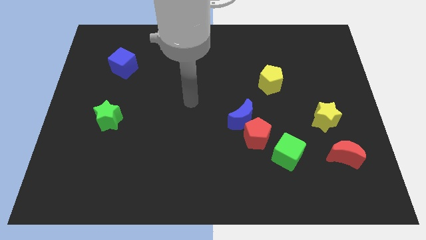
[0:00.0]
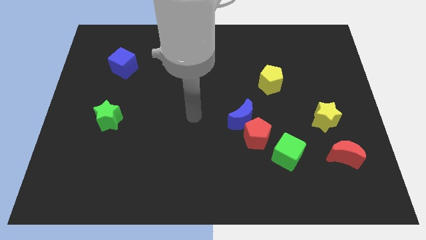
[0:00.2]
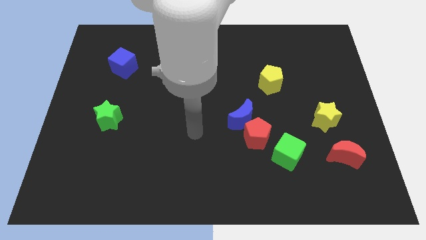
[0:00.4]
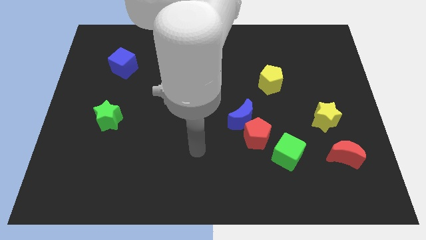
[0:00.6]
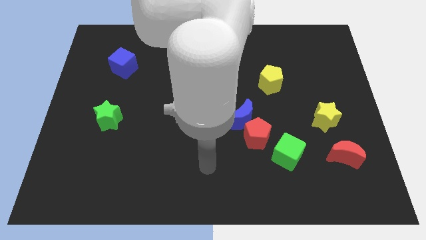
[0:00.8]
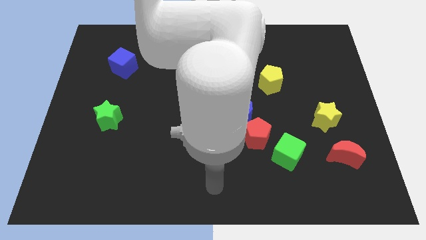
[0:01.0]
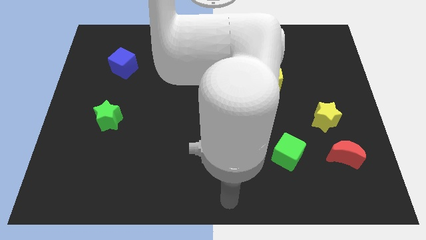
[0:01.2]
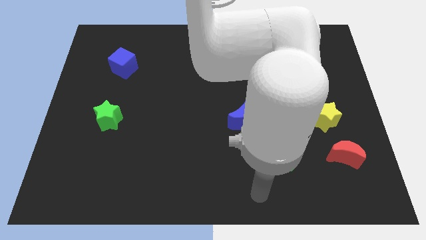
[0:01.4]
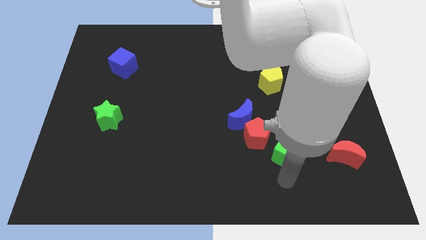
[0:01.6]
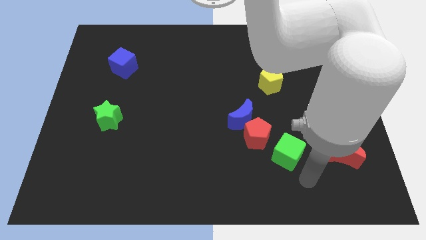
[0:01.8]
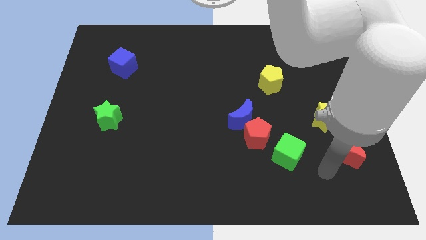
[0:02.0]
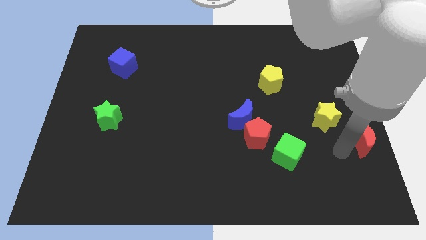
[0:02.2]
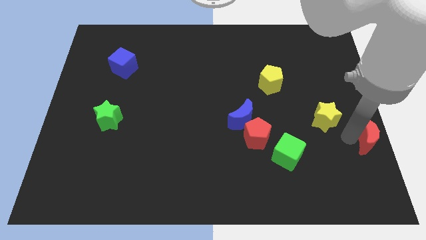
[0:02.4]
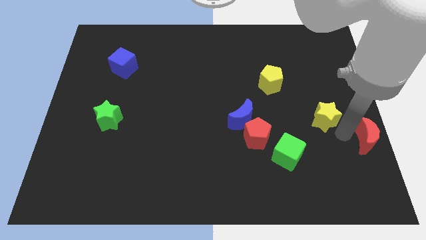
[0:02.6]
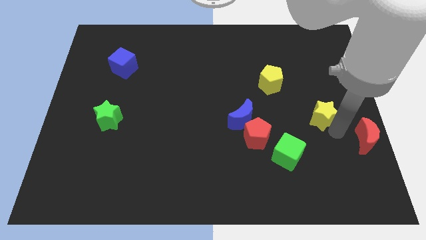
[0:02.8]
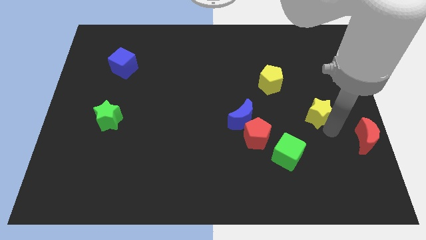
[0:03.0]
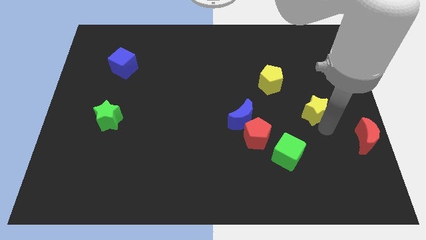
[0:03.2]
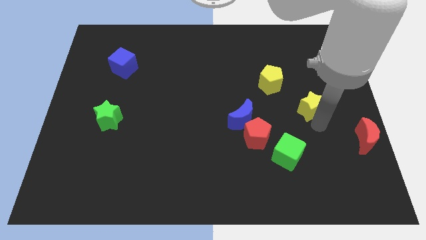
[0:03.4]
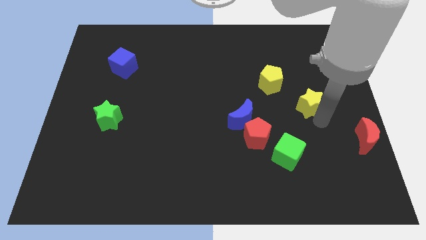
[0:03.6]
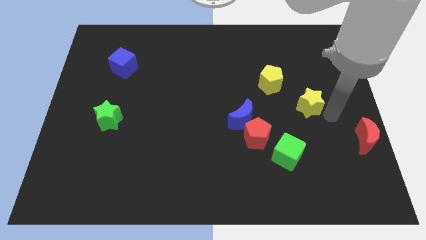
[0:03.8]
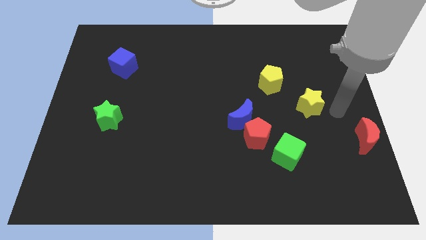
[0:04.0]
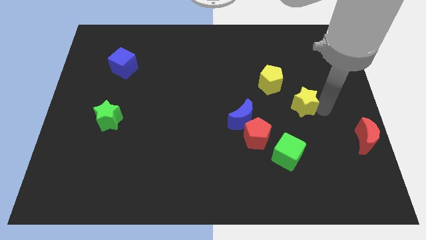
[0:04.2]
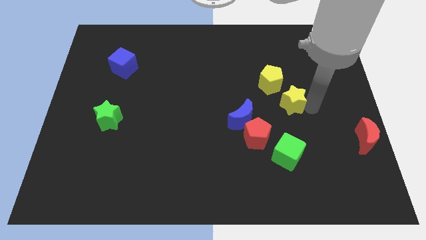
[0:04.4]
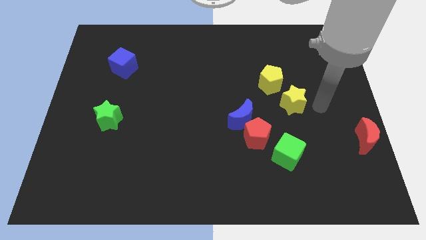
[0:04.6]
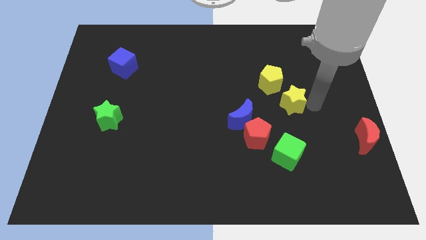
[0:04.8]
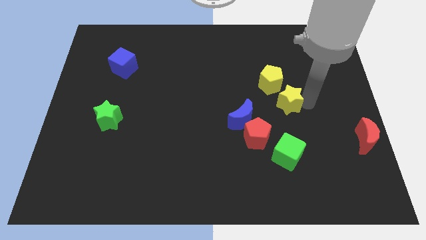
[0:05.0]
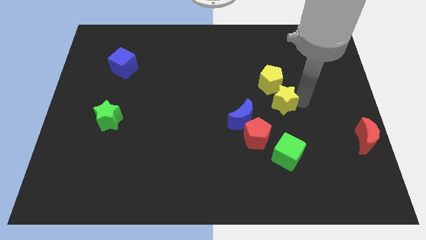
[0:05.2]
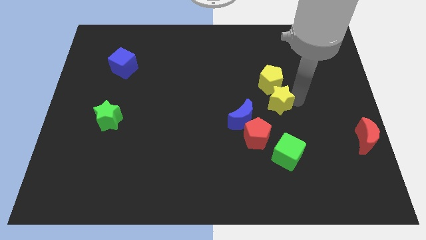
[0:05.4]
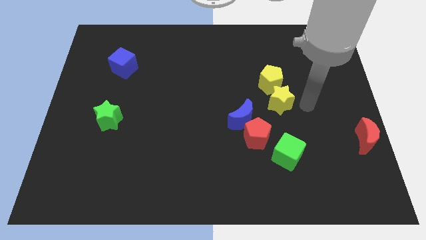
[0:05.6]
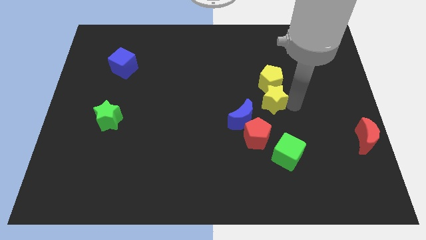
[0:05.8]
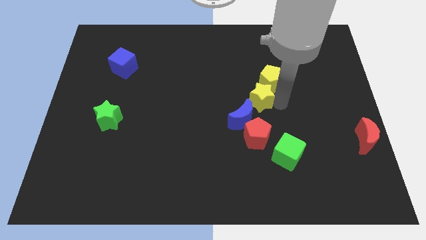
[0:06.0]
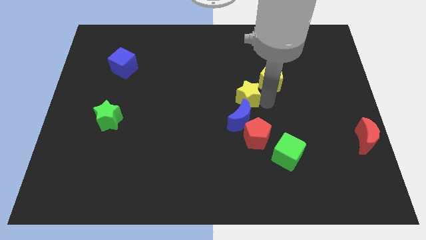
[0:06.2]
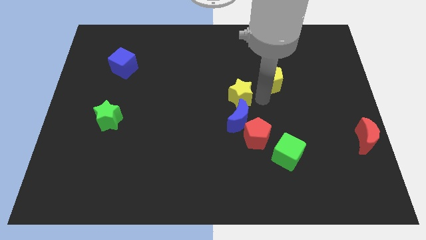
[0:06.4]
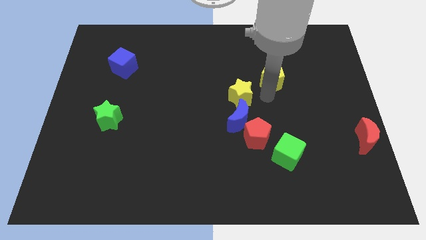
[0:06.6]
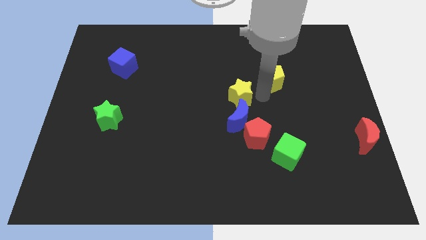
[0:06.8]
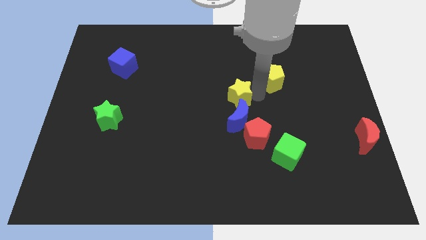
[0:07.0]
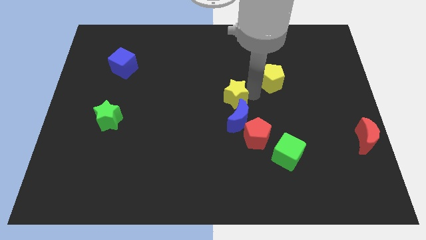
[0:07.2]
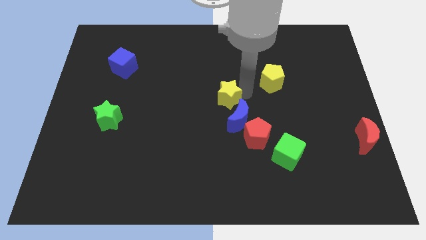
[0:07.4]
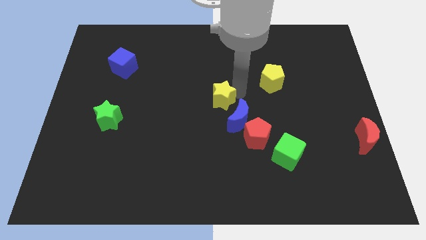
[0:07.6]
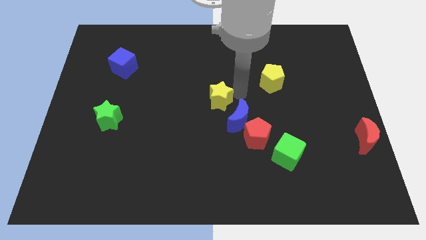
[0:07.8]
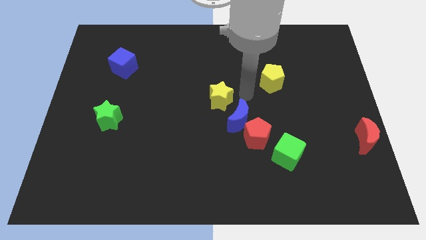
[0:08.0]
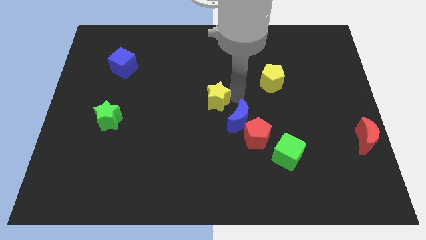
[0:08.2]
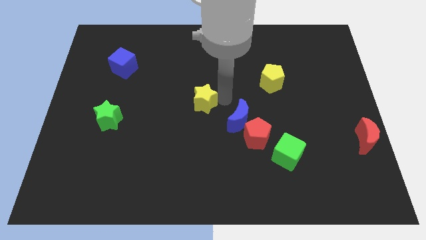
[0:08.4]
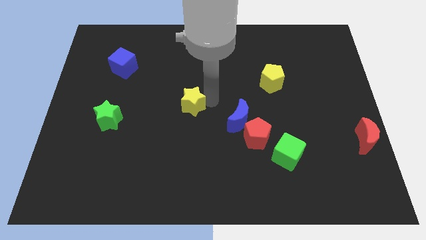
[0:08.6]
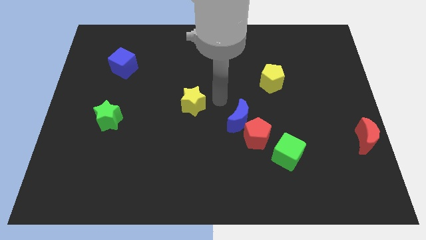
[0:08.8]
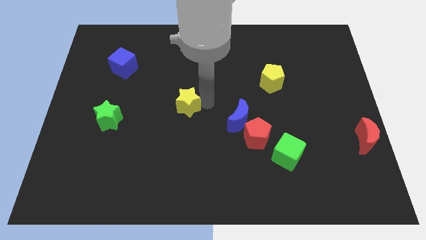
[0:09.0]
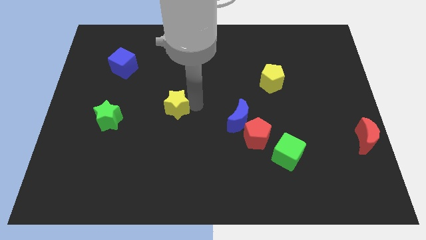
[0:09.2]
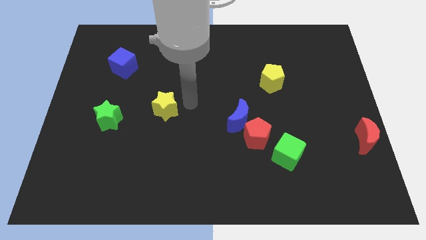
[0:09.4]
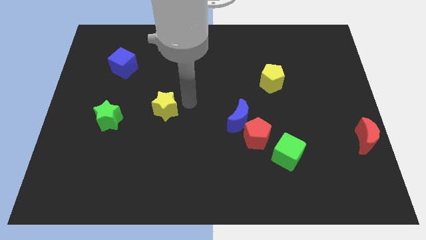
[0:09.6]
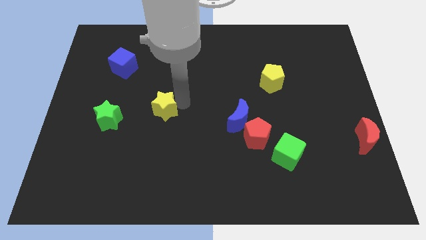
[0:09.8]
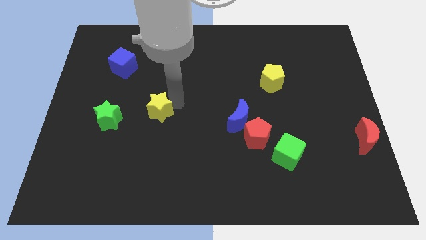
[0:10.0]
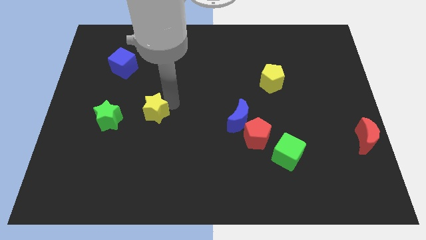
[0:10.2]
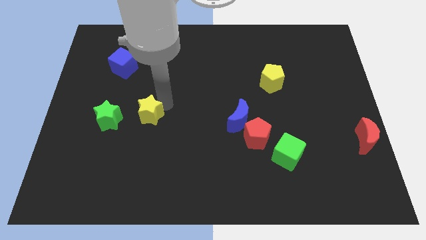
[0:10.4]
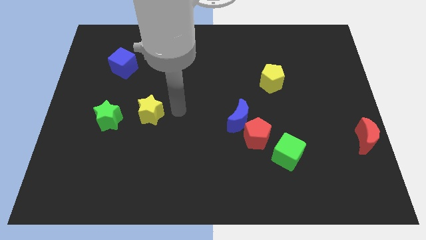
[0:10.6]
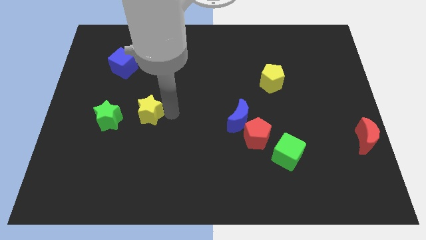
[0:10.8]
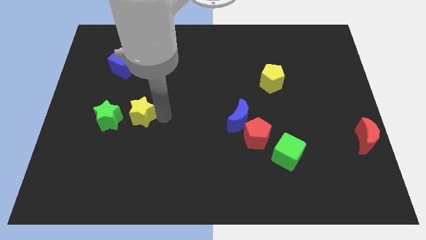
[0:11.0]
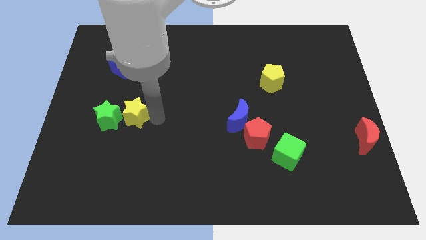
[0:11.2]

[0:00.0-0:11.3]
move the yellow star to the green star

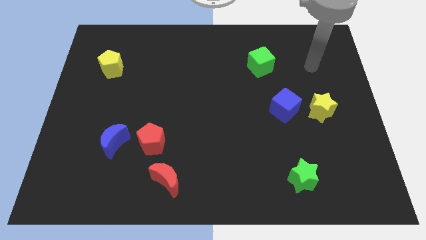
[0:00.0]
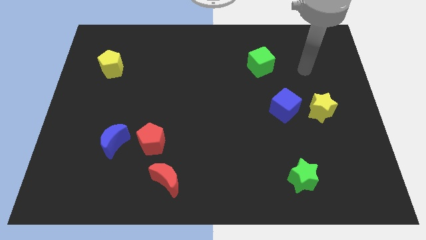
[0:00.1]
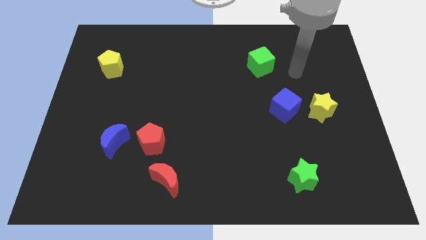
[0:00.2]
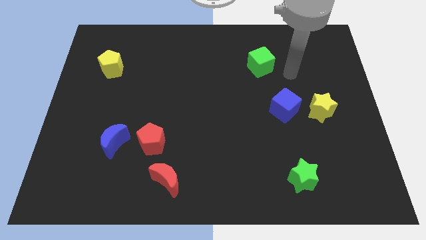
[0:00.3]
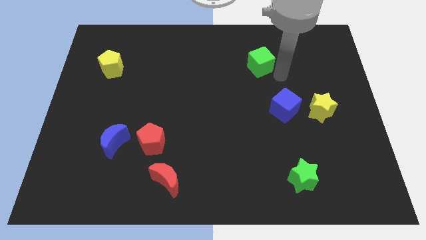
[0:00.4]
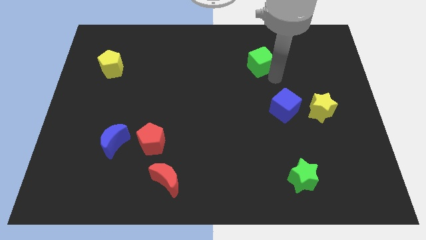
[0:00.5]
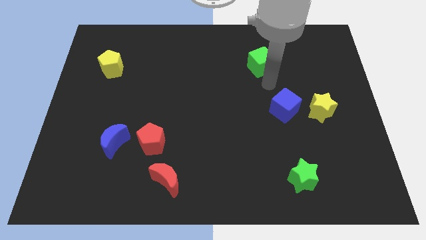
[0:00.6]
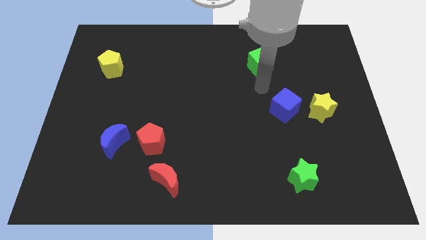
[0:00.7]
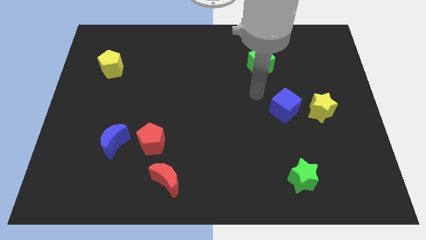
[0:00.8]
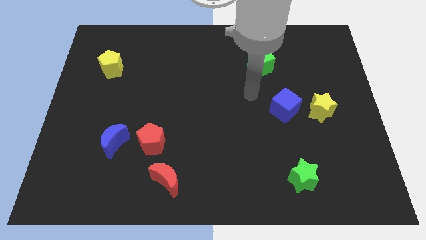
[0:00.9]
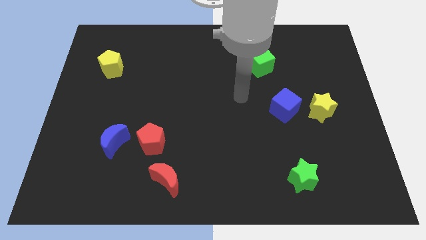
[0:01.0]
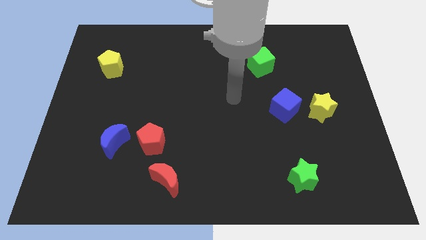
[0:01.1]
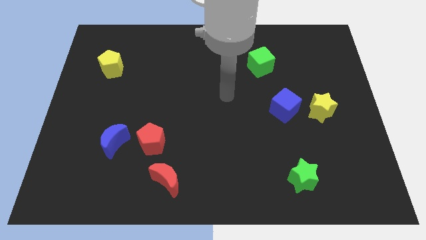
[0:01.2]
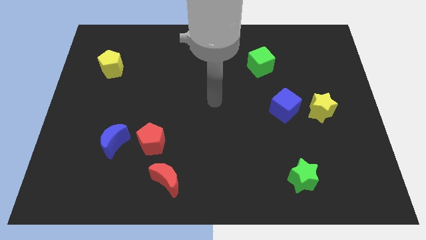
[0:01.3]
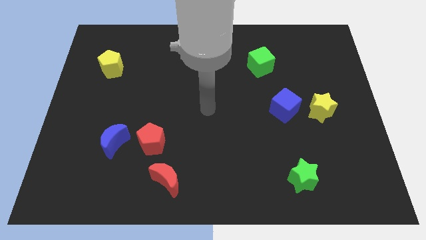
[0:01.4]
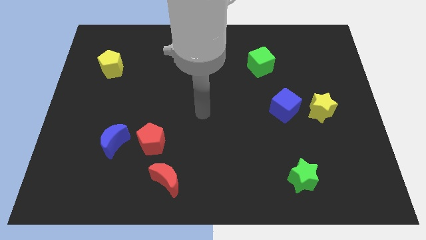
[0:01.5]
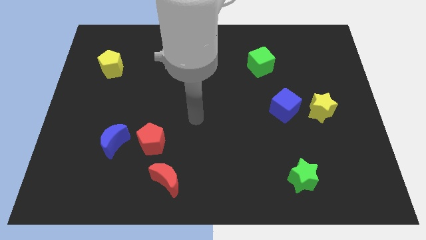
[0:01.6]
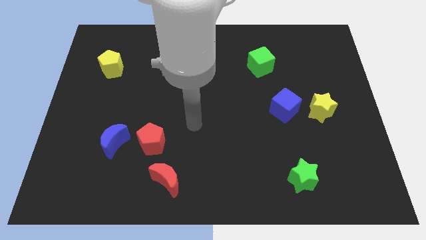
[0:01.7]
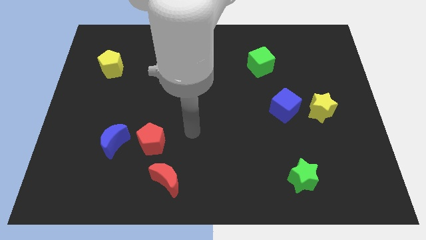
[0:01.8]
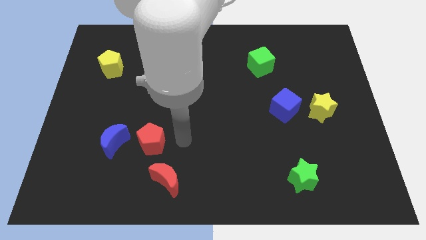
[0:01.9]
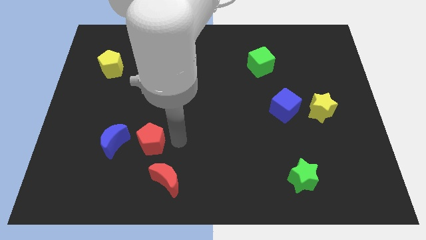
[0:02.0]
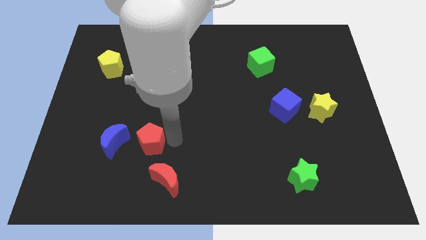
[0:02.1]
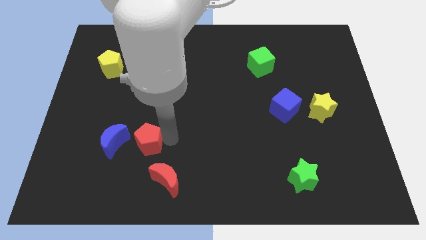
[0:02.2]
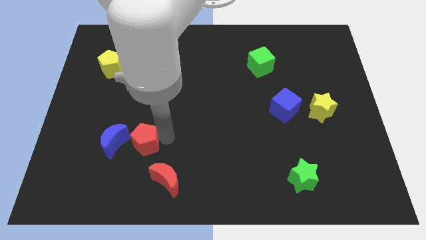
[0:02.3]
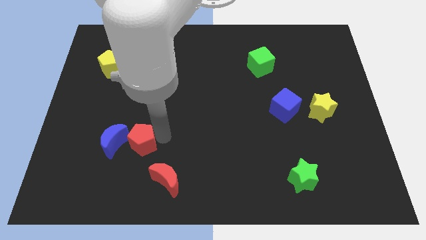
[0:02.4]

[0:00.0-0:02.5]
slide the red pentagon to the blue moon

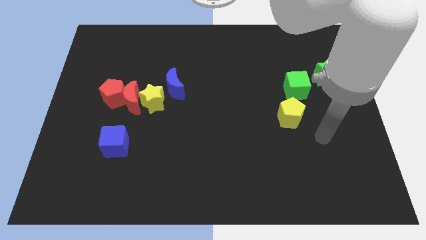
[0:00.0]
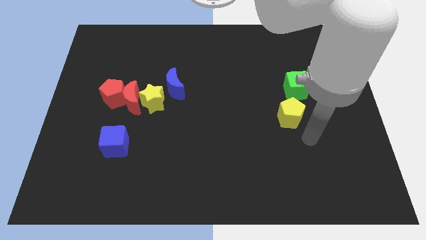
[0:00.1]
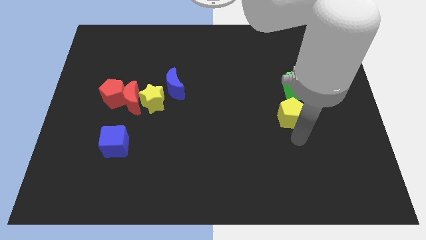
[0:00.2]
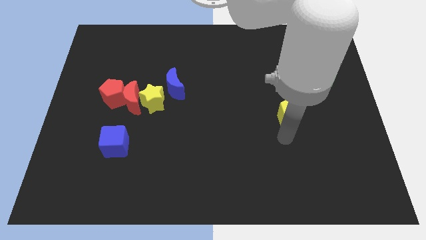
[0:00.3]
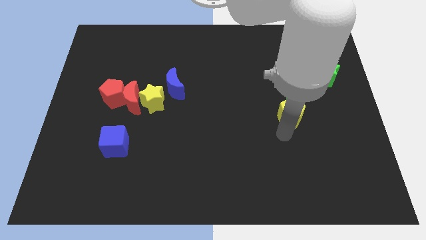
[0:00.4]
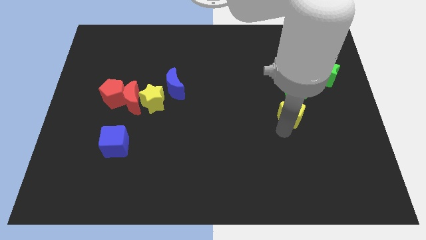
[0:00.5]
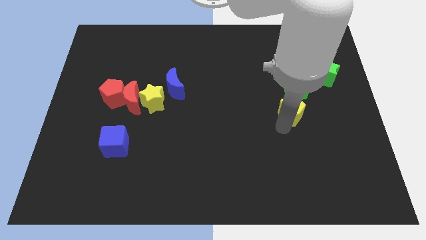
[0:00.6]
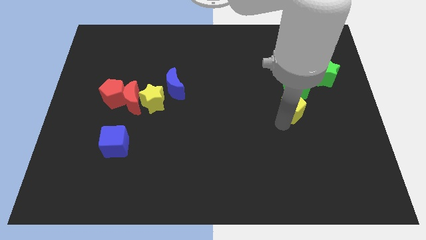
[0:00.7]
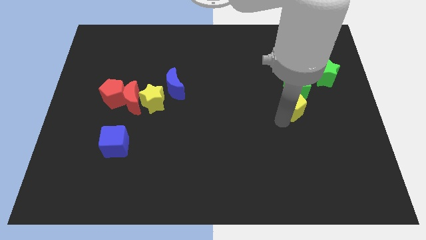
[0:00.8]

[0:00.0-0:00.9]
push the yellow pentagon towards the green cube
